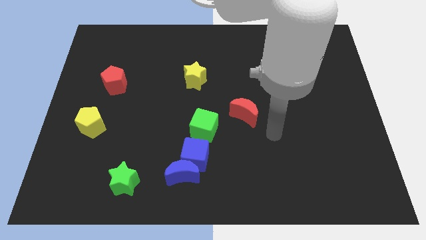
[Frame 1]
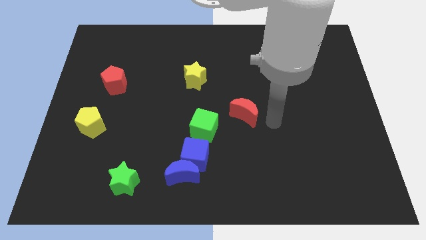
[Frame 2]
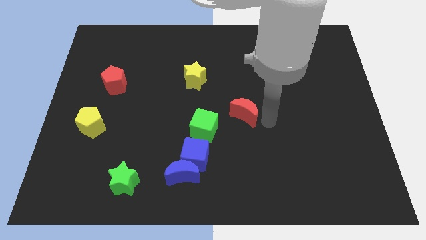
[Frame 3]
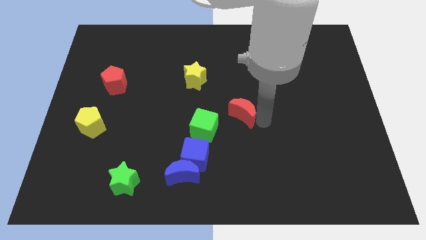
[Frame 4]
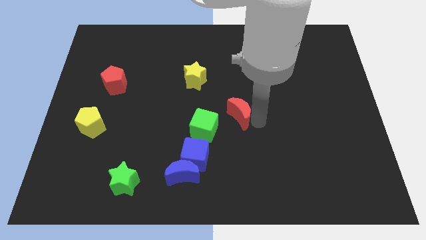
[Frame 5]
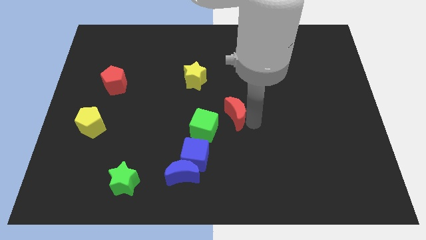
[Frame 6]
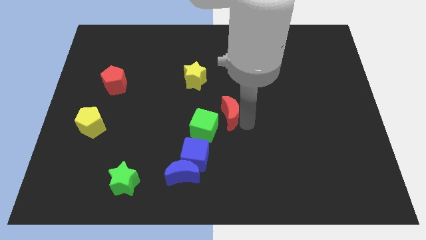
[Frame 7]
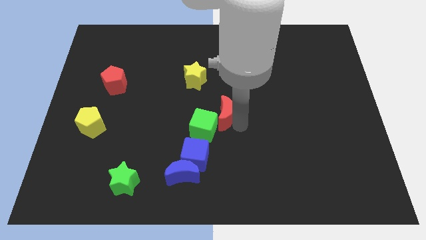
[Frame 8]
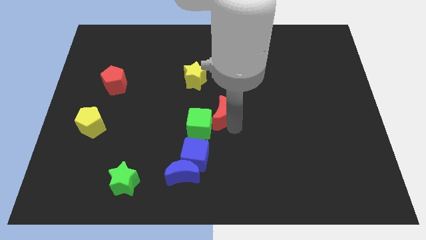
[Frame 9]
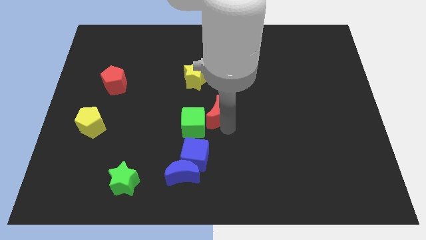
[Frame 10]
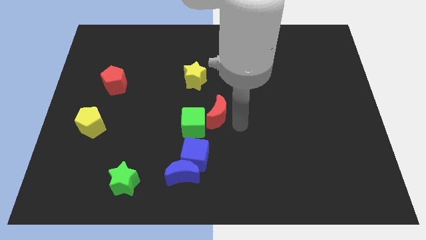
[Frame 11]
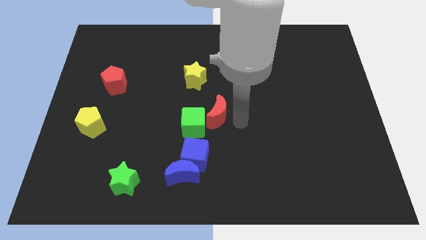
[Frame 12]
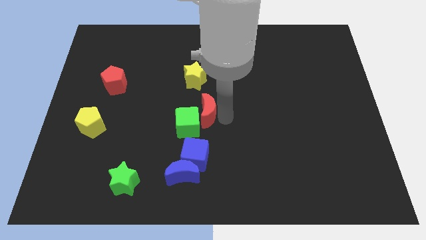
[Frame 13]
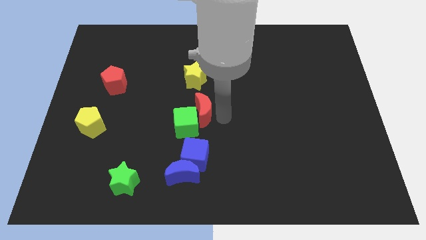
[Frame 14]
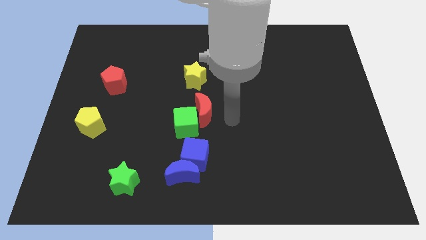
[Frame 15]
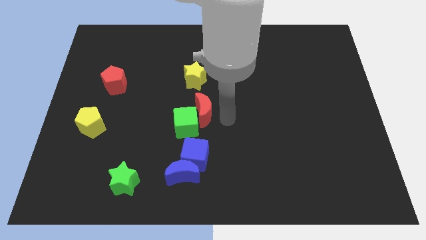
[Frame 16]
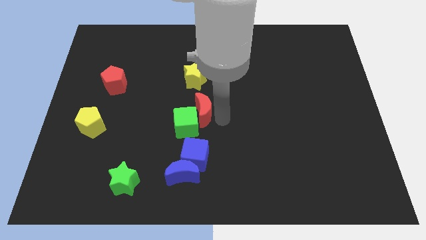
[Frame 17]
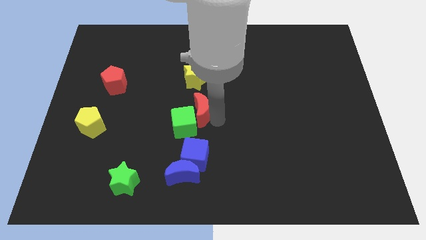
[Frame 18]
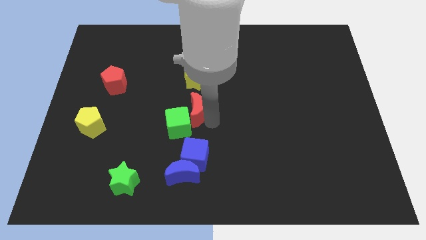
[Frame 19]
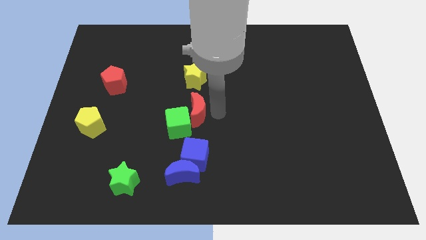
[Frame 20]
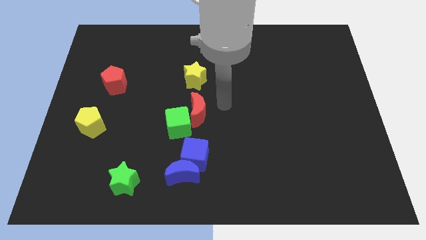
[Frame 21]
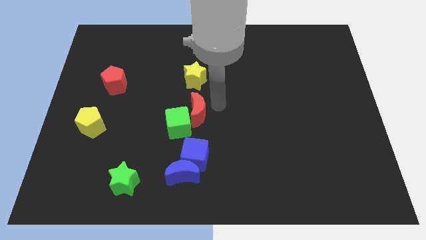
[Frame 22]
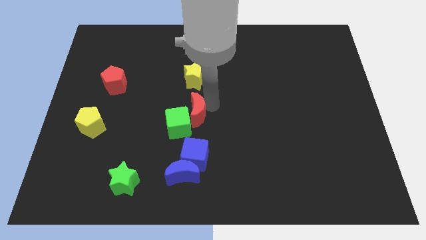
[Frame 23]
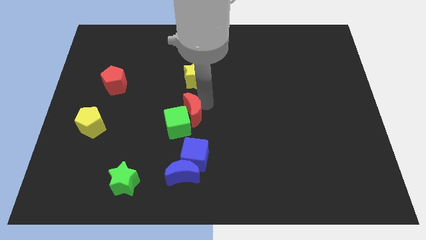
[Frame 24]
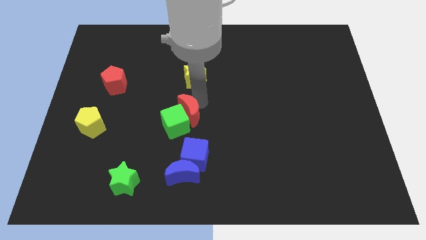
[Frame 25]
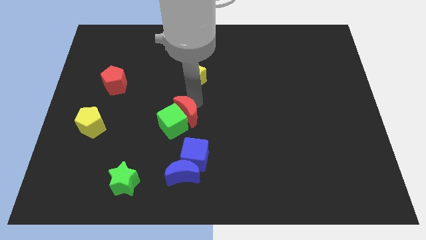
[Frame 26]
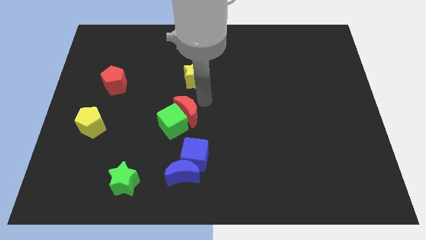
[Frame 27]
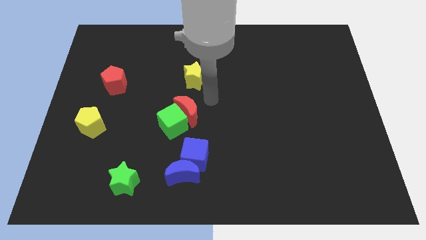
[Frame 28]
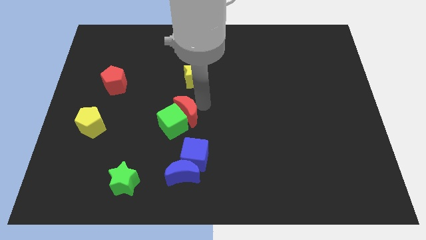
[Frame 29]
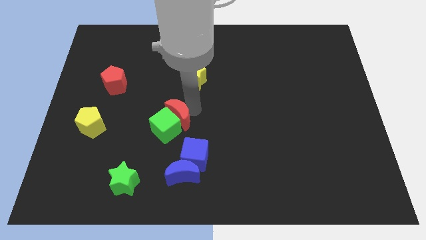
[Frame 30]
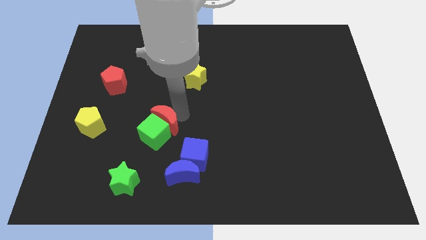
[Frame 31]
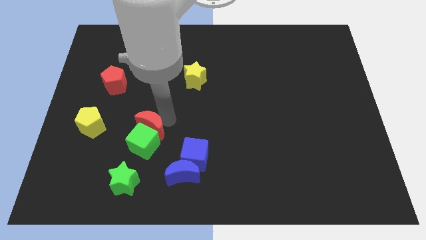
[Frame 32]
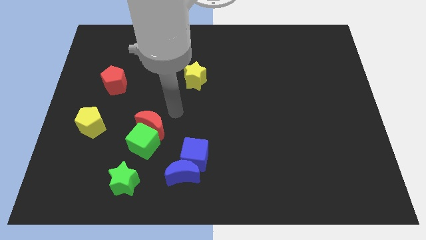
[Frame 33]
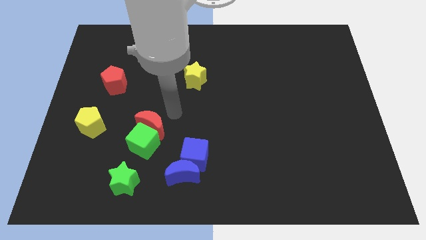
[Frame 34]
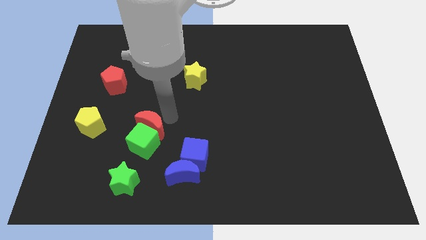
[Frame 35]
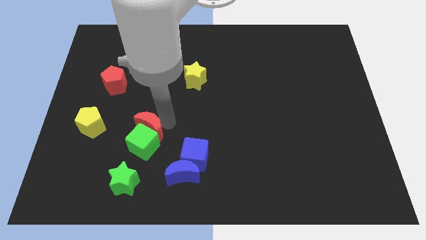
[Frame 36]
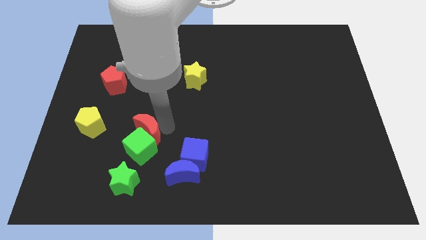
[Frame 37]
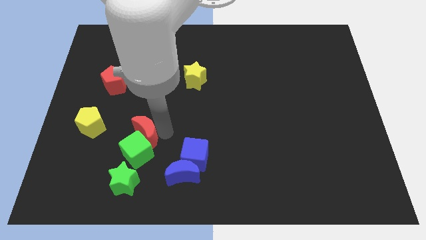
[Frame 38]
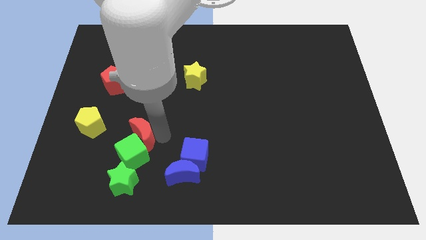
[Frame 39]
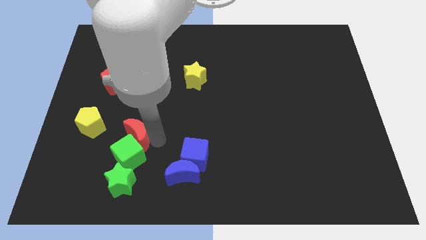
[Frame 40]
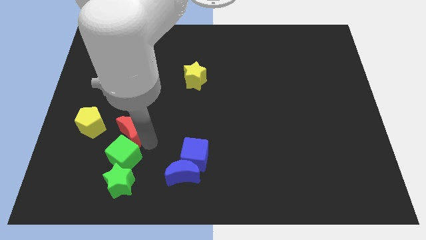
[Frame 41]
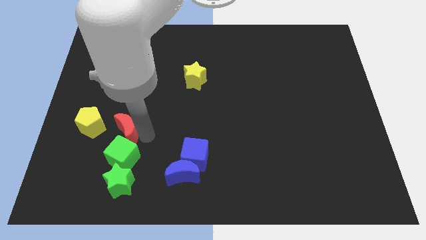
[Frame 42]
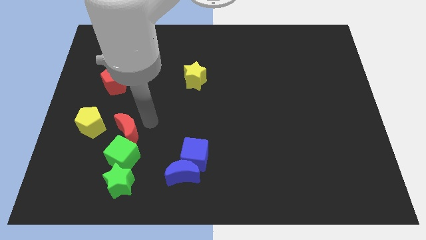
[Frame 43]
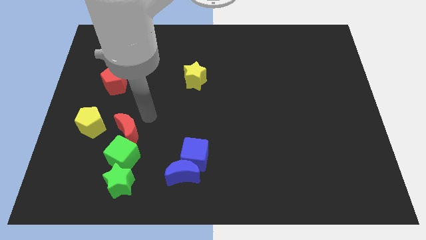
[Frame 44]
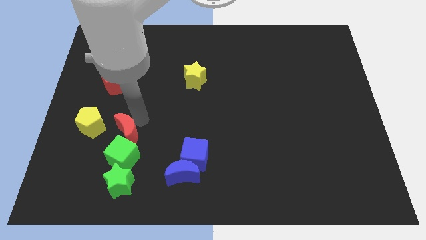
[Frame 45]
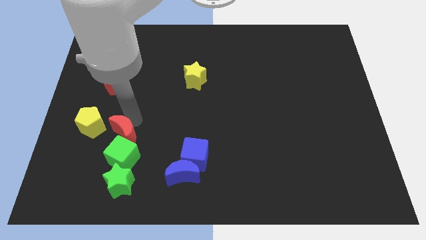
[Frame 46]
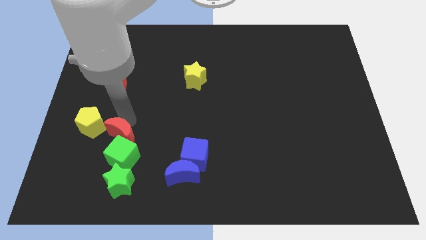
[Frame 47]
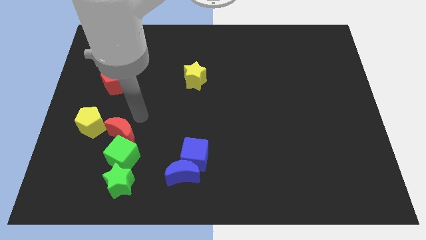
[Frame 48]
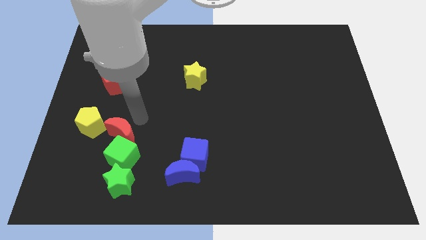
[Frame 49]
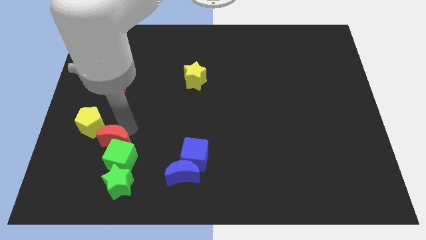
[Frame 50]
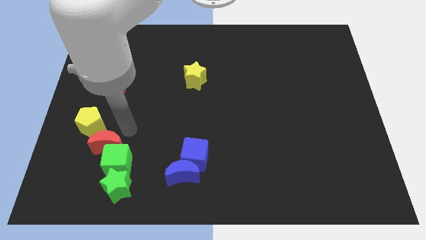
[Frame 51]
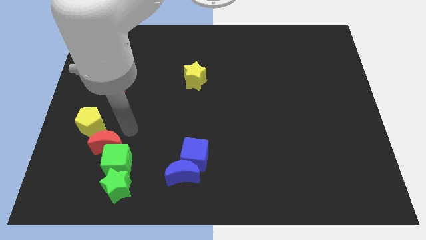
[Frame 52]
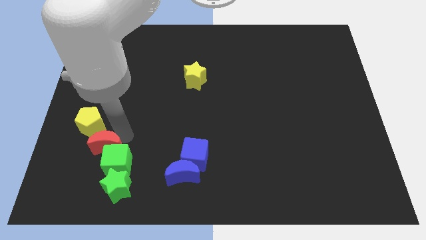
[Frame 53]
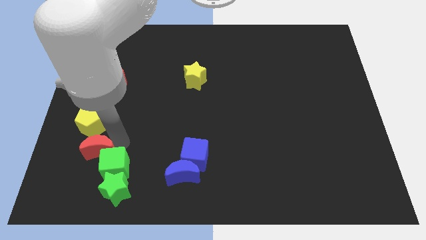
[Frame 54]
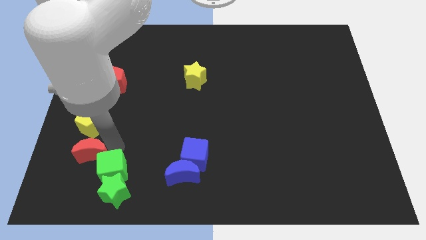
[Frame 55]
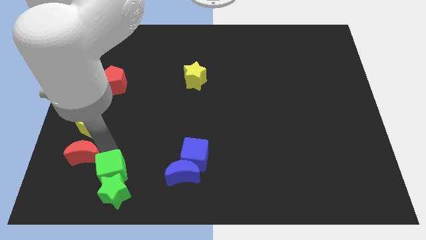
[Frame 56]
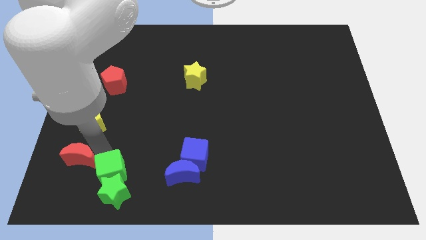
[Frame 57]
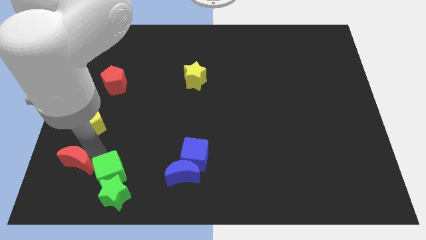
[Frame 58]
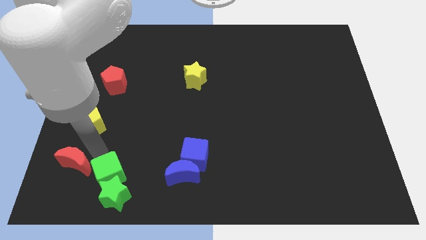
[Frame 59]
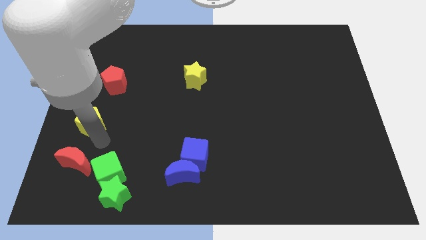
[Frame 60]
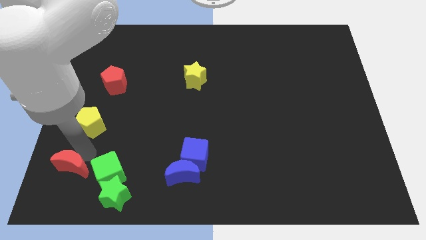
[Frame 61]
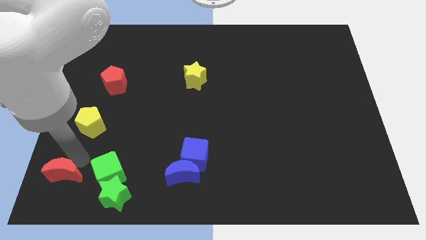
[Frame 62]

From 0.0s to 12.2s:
put the red moon to the lower left corner
